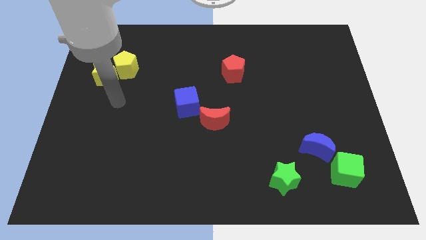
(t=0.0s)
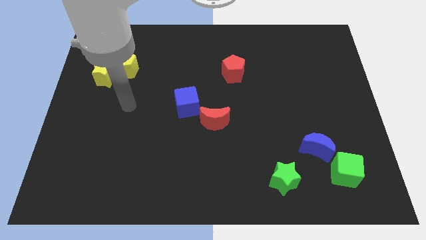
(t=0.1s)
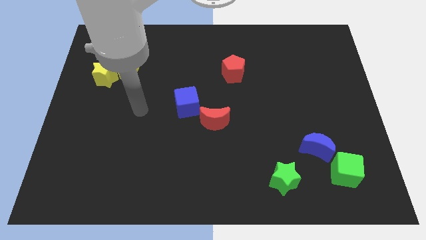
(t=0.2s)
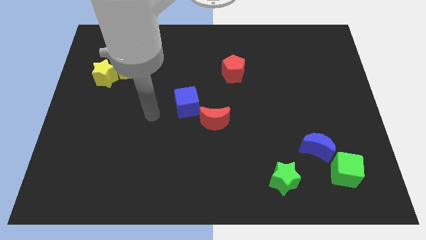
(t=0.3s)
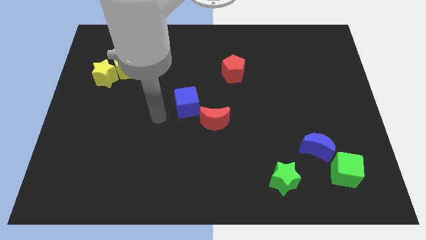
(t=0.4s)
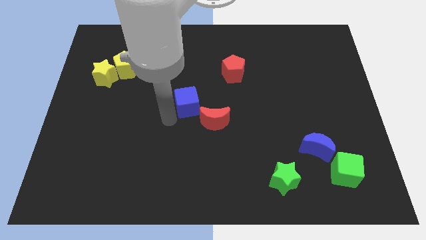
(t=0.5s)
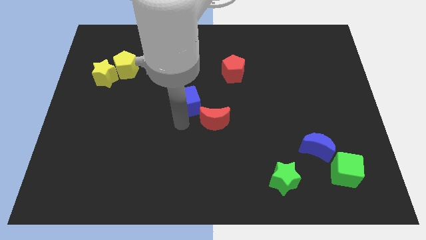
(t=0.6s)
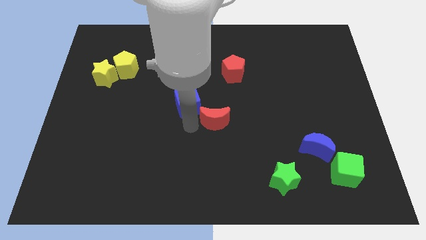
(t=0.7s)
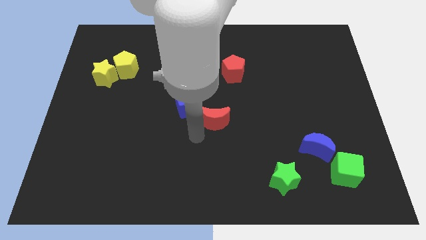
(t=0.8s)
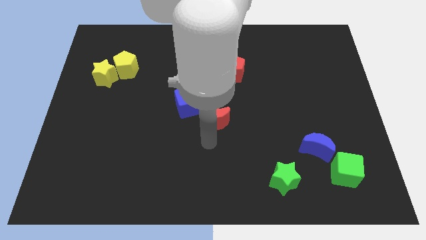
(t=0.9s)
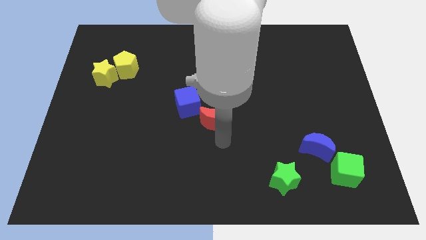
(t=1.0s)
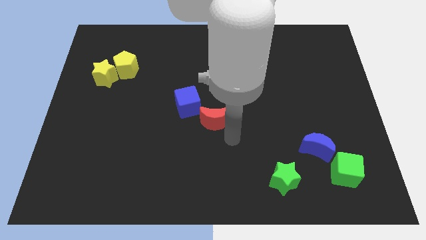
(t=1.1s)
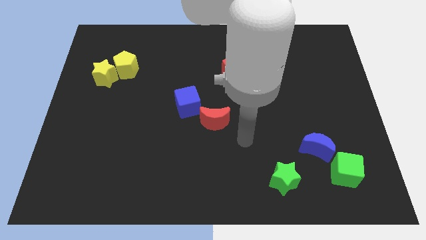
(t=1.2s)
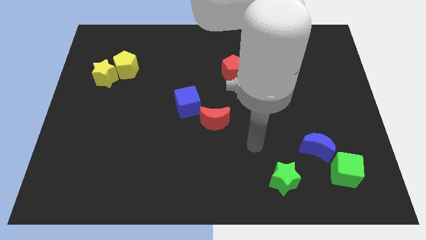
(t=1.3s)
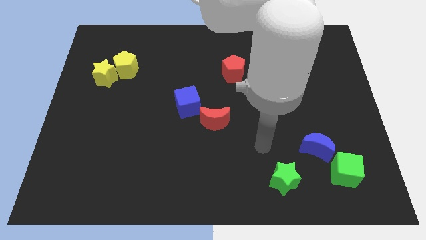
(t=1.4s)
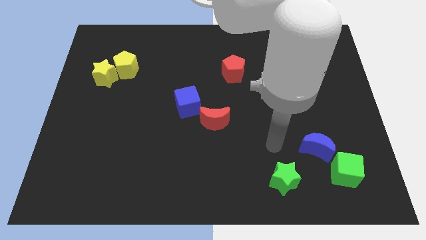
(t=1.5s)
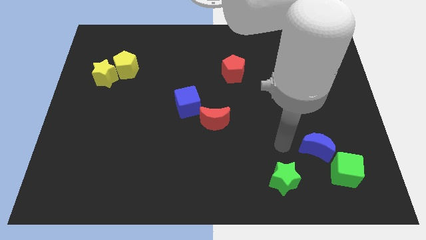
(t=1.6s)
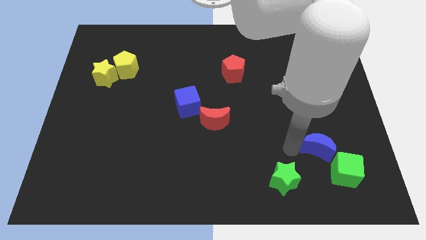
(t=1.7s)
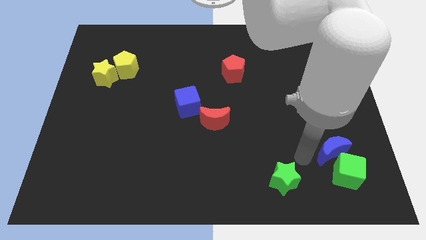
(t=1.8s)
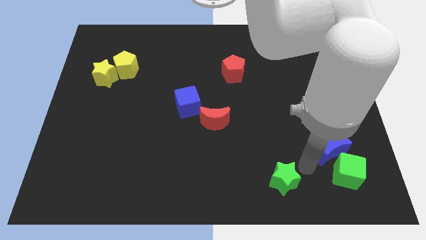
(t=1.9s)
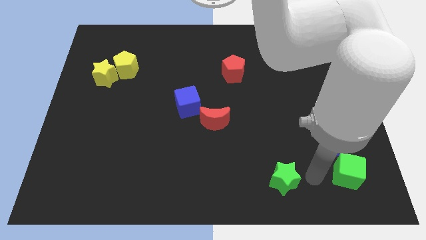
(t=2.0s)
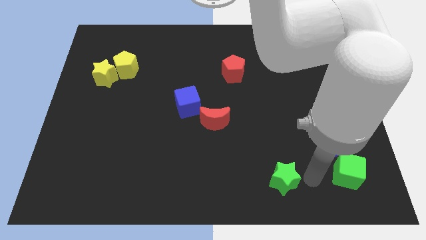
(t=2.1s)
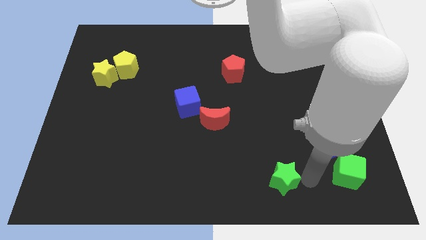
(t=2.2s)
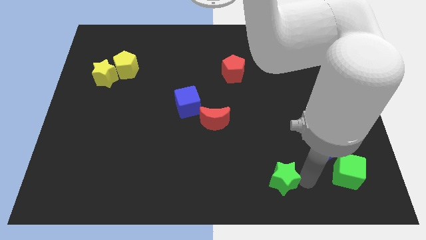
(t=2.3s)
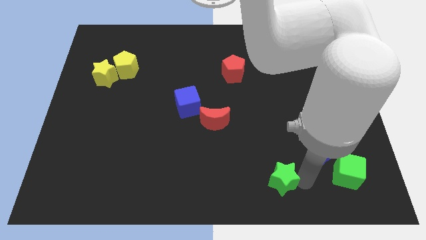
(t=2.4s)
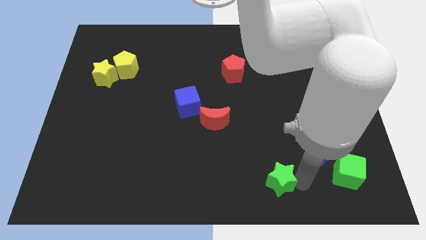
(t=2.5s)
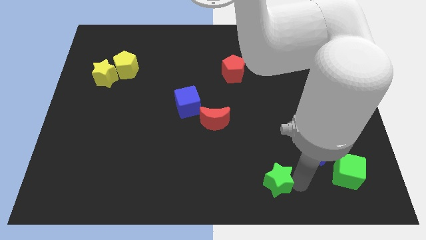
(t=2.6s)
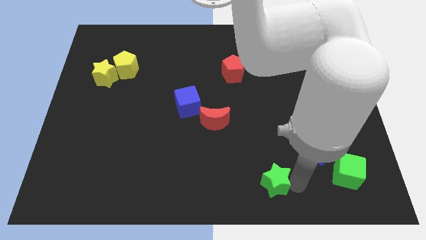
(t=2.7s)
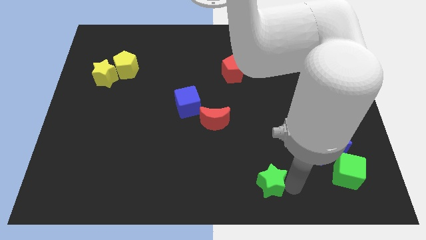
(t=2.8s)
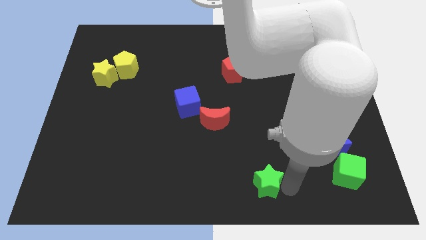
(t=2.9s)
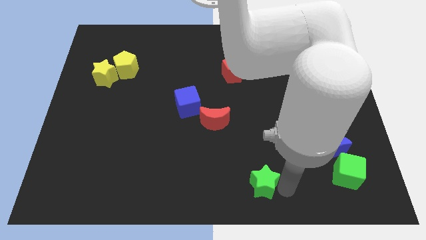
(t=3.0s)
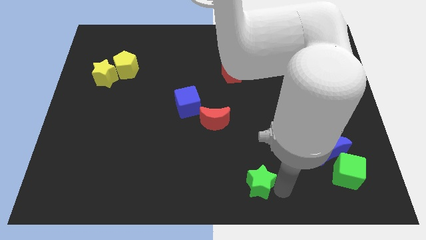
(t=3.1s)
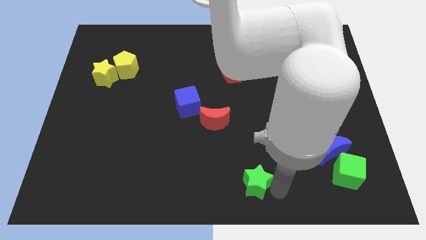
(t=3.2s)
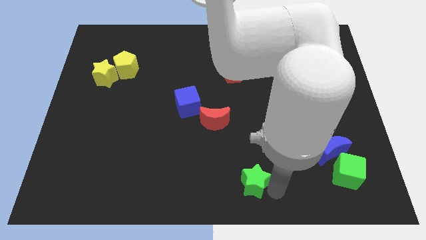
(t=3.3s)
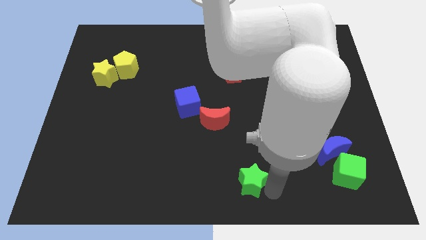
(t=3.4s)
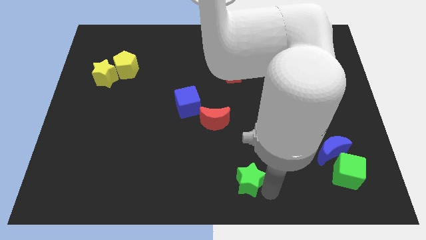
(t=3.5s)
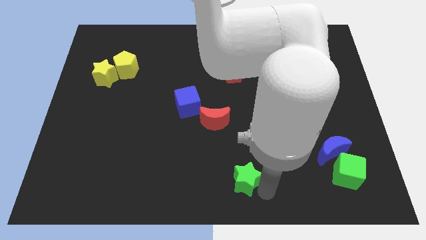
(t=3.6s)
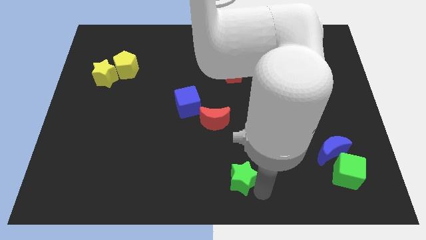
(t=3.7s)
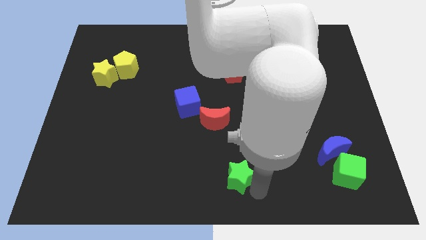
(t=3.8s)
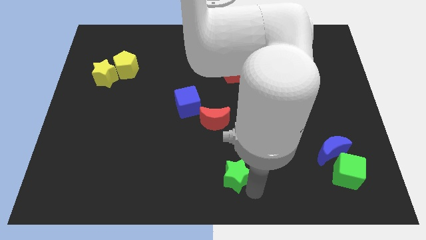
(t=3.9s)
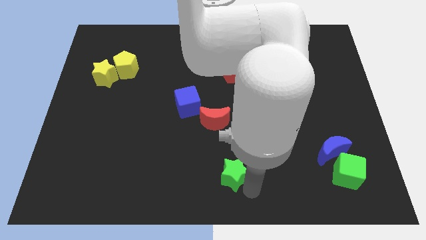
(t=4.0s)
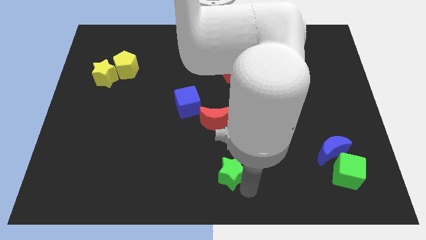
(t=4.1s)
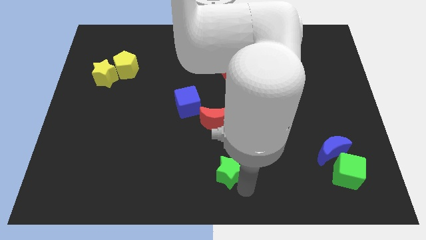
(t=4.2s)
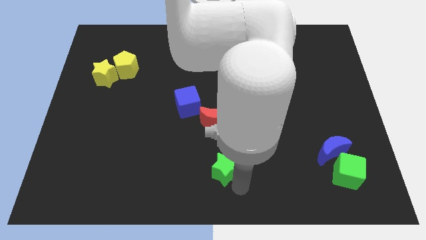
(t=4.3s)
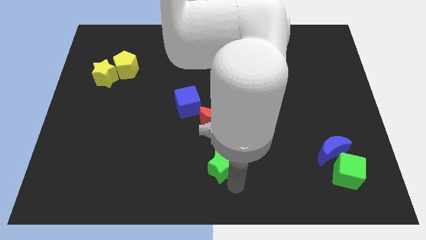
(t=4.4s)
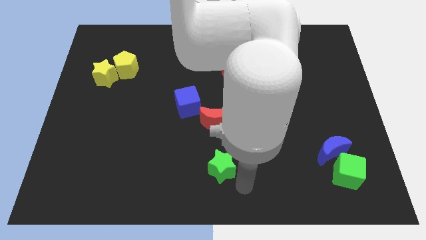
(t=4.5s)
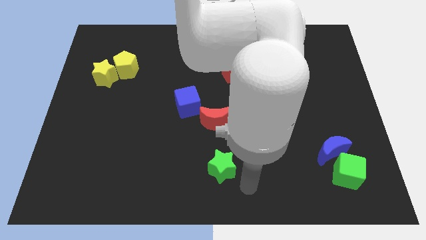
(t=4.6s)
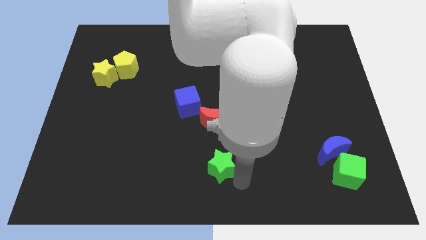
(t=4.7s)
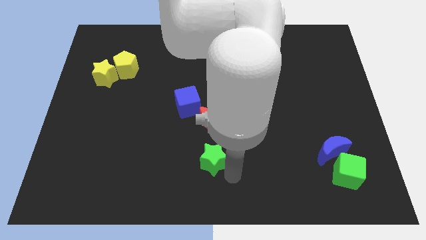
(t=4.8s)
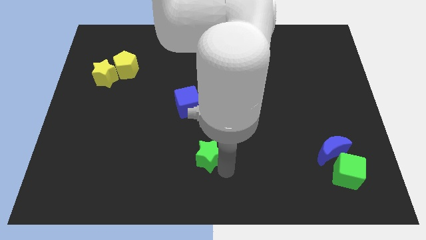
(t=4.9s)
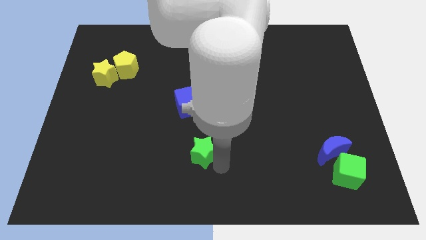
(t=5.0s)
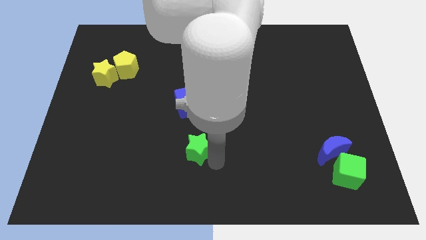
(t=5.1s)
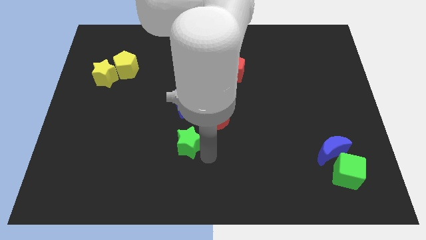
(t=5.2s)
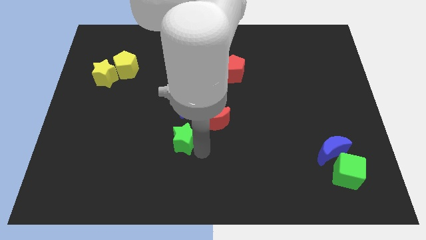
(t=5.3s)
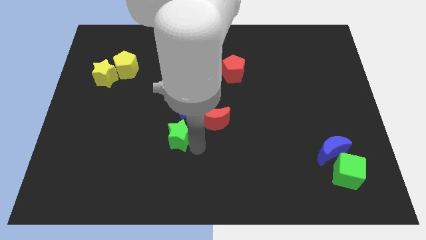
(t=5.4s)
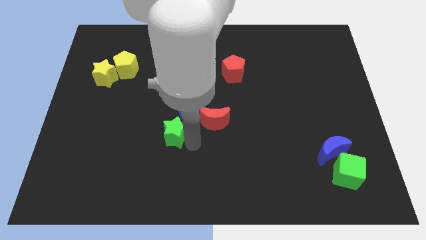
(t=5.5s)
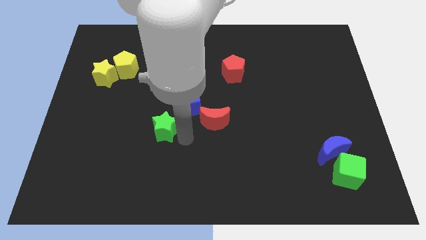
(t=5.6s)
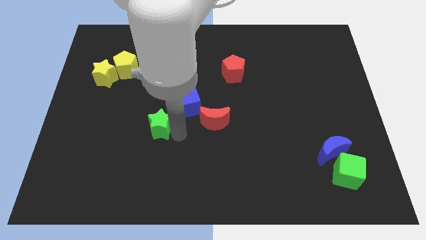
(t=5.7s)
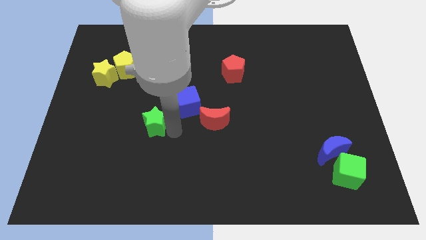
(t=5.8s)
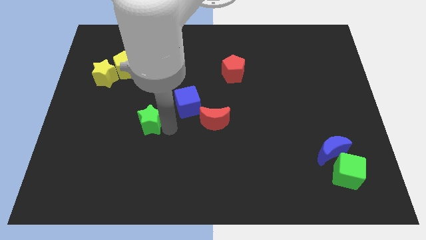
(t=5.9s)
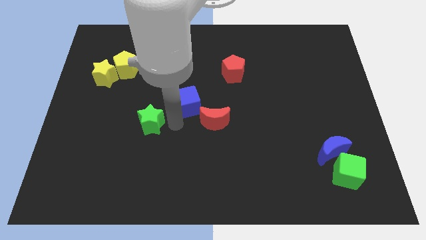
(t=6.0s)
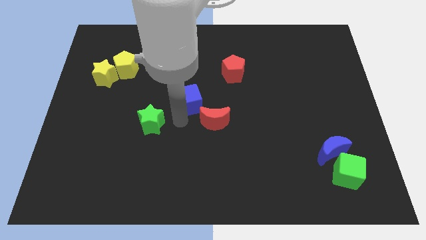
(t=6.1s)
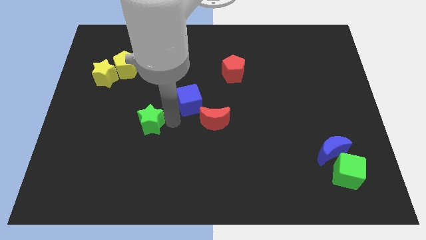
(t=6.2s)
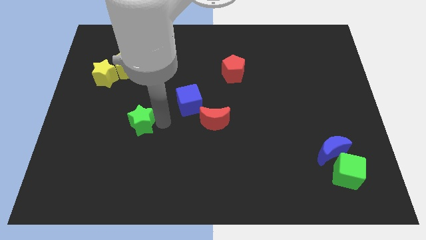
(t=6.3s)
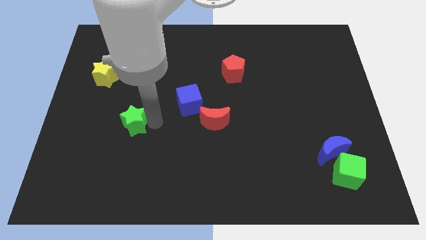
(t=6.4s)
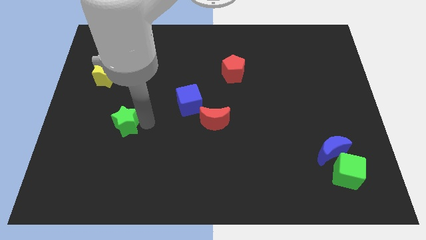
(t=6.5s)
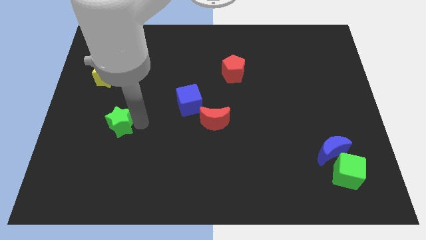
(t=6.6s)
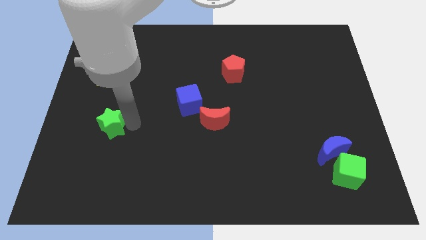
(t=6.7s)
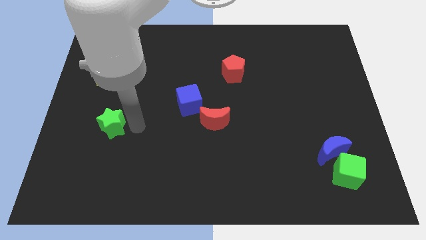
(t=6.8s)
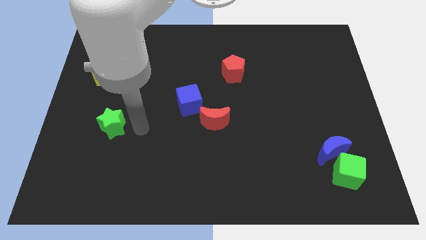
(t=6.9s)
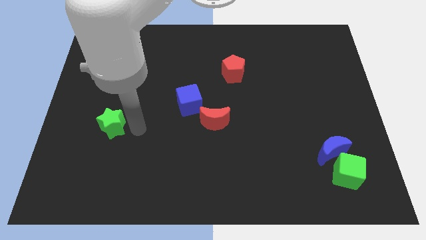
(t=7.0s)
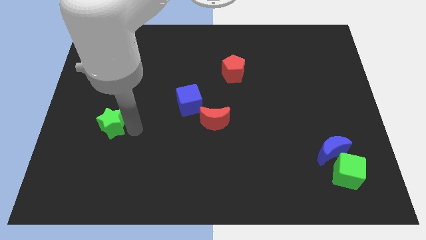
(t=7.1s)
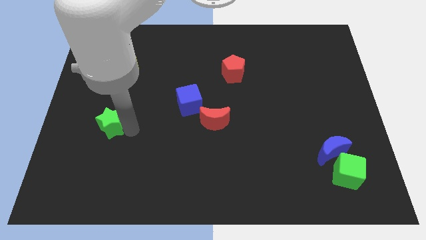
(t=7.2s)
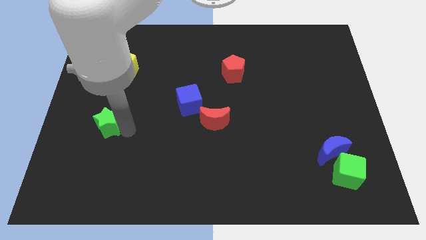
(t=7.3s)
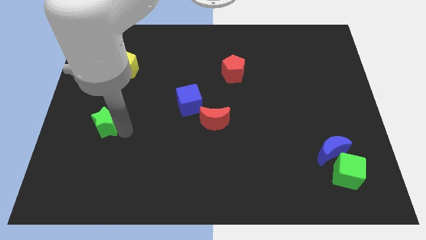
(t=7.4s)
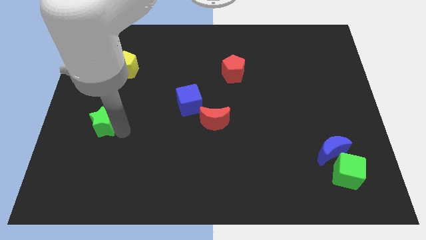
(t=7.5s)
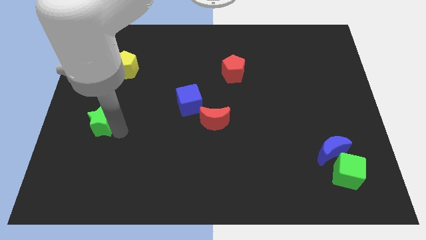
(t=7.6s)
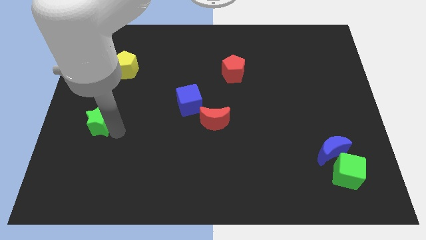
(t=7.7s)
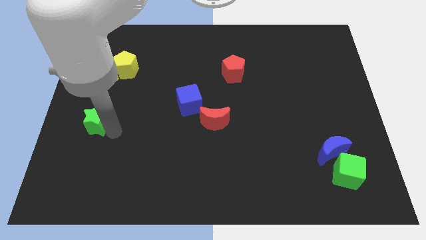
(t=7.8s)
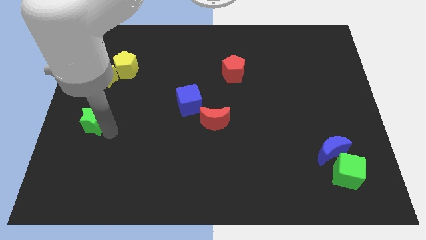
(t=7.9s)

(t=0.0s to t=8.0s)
slide the green star to the left side
